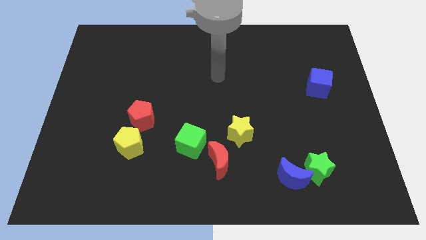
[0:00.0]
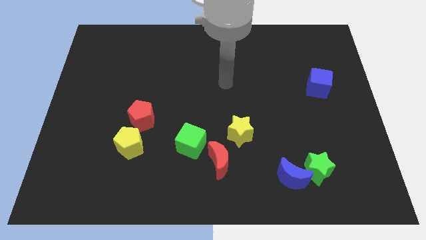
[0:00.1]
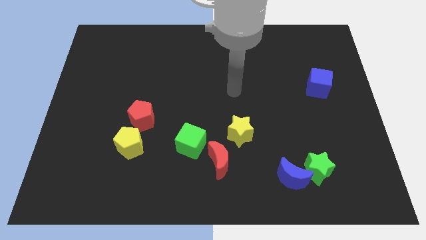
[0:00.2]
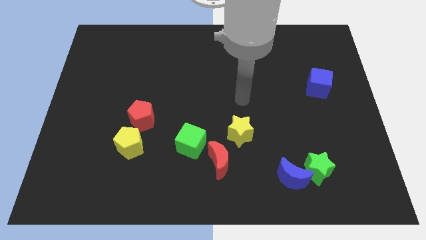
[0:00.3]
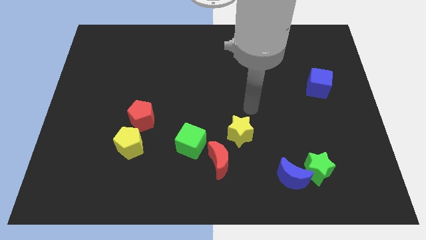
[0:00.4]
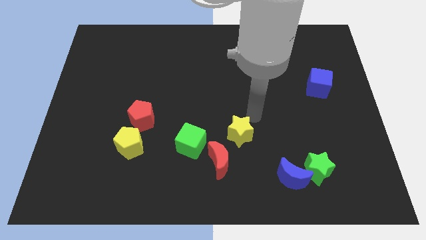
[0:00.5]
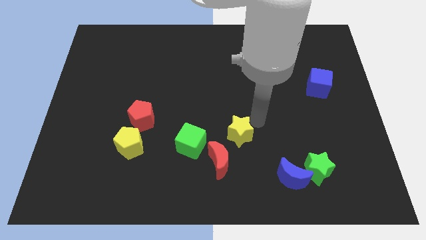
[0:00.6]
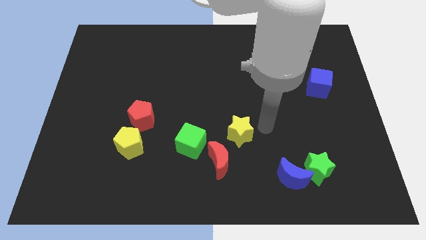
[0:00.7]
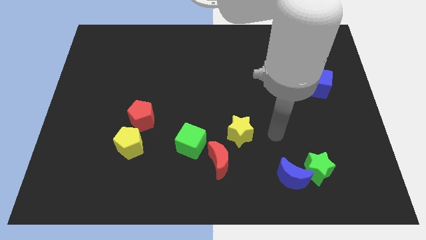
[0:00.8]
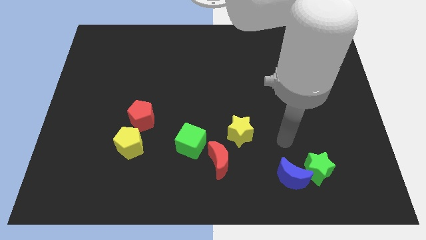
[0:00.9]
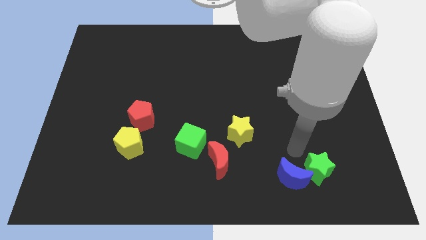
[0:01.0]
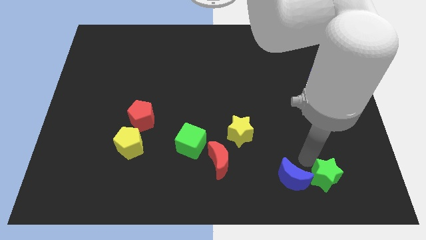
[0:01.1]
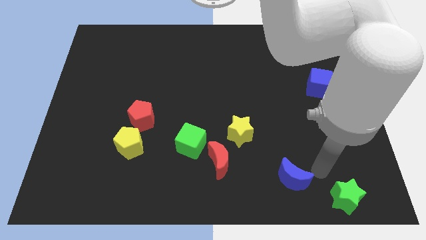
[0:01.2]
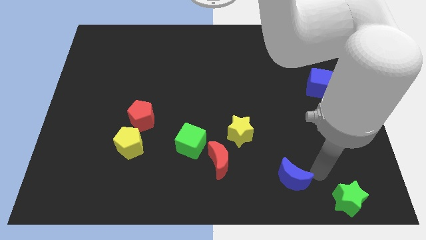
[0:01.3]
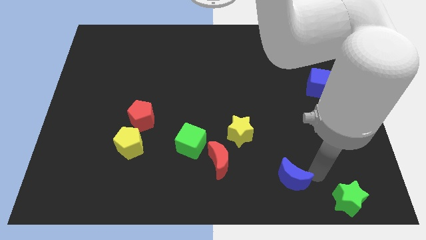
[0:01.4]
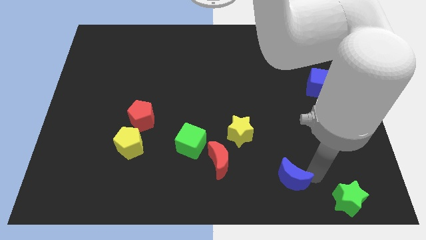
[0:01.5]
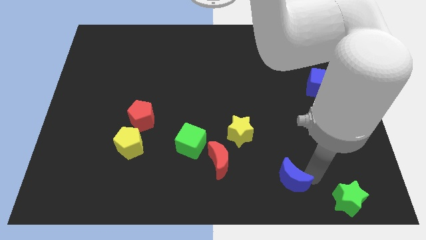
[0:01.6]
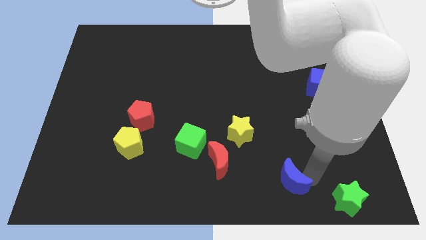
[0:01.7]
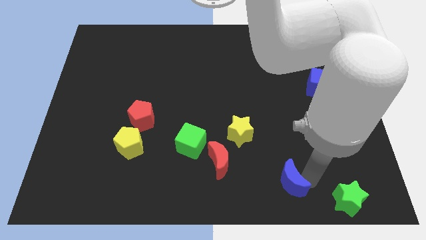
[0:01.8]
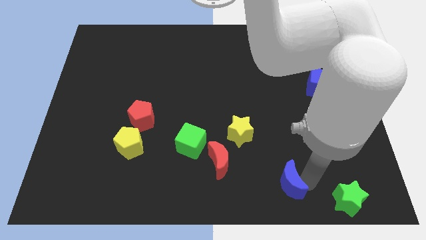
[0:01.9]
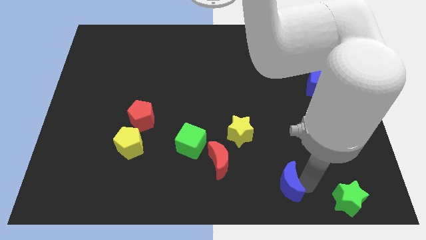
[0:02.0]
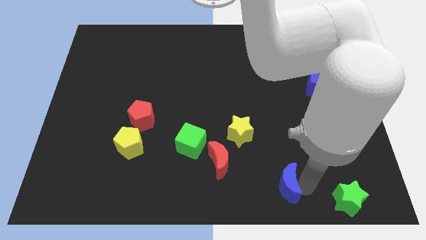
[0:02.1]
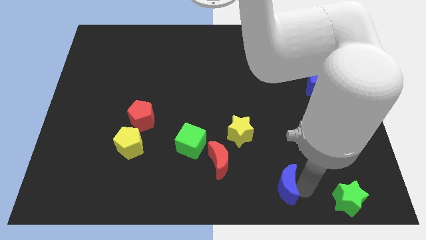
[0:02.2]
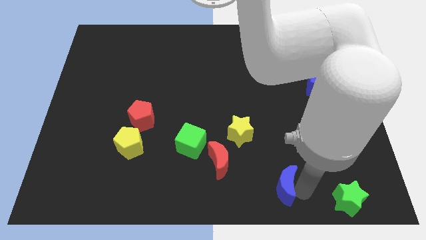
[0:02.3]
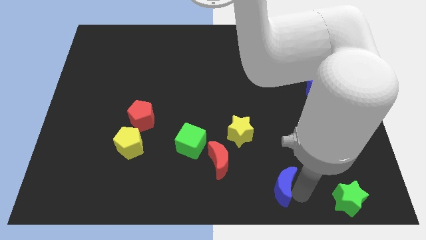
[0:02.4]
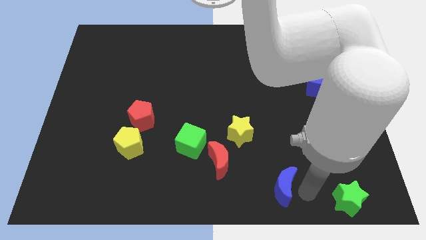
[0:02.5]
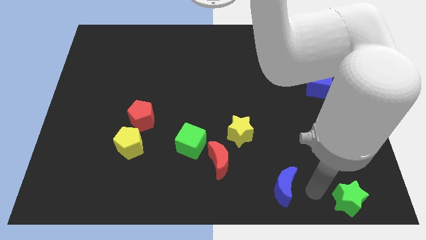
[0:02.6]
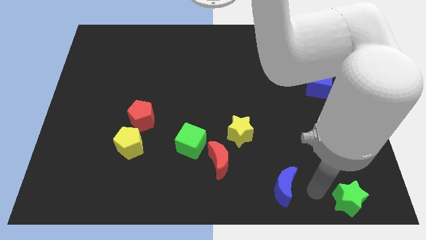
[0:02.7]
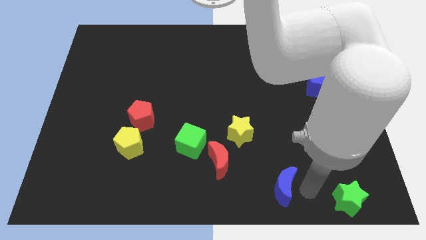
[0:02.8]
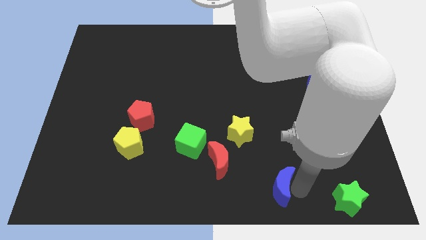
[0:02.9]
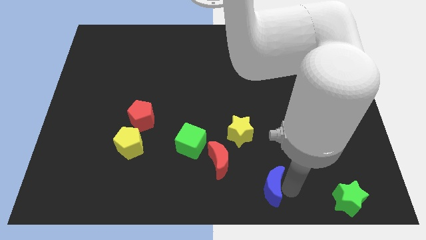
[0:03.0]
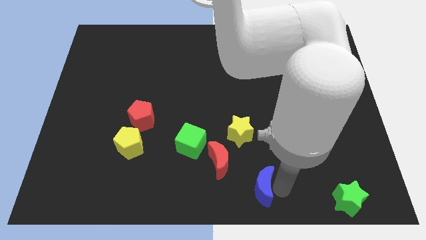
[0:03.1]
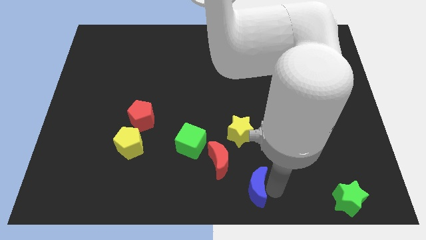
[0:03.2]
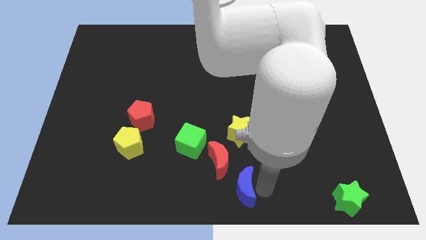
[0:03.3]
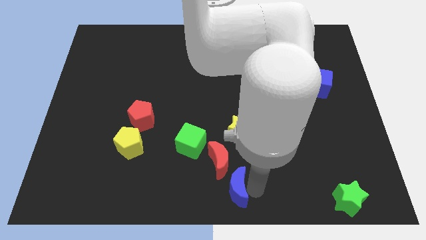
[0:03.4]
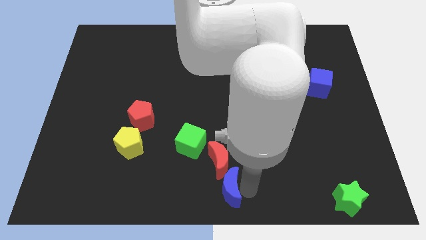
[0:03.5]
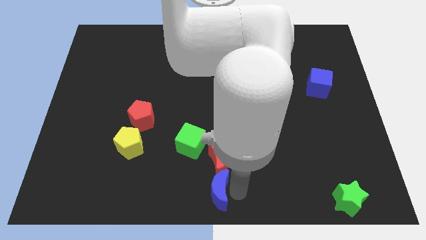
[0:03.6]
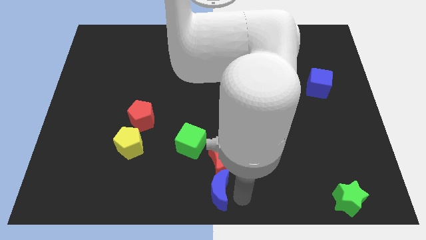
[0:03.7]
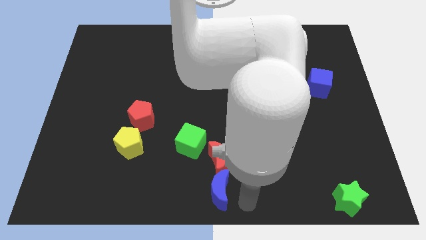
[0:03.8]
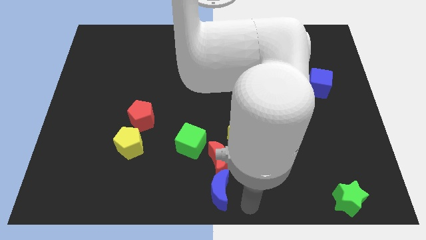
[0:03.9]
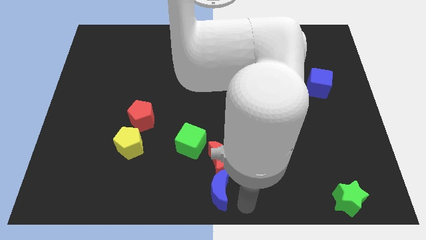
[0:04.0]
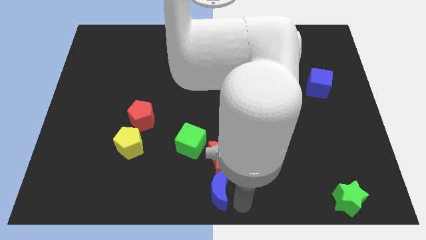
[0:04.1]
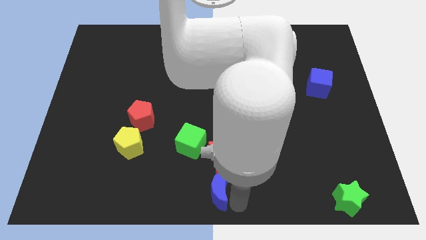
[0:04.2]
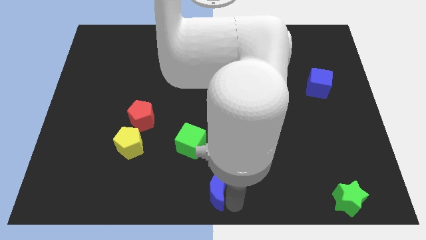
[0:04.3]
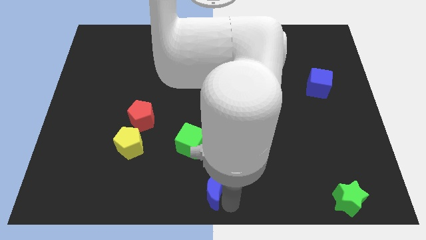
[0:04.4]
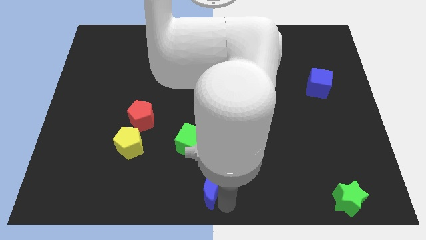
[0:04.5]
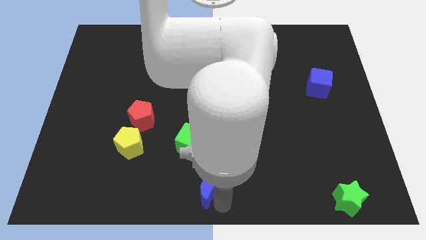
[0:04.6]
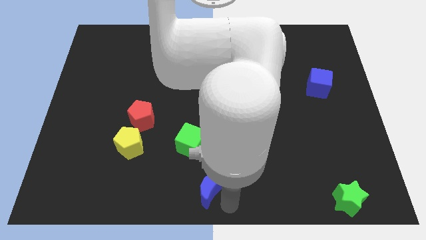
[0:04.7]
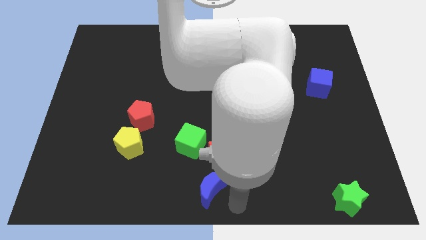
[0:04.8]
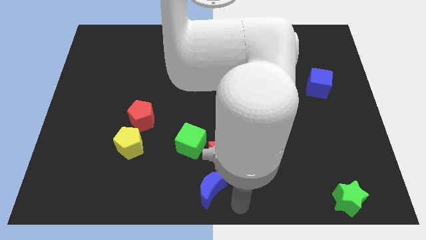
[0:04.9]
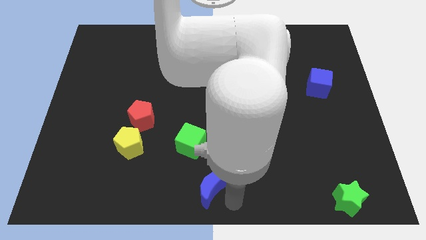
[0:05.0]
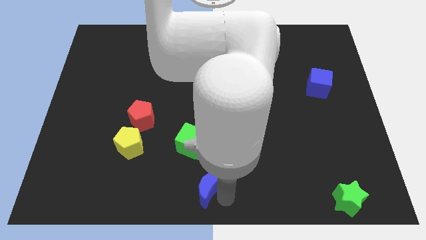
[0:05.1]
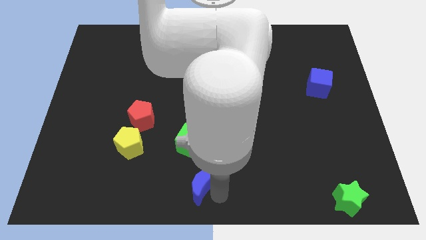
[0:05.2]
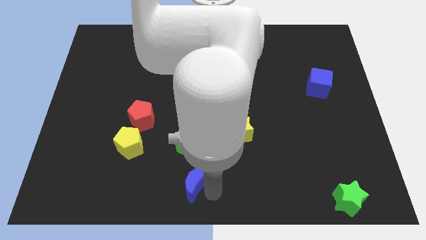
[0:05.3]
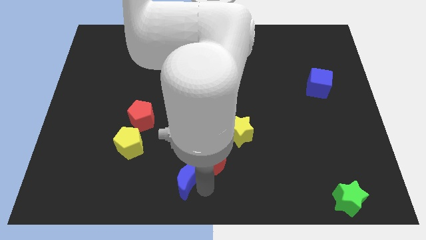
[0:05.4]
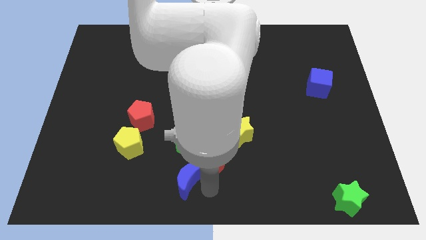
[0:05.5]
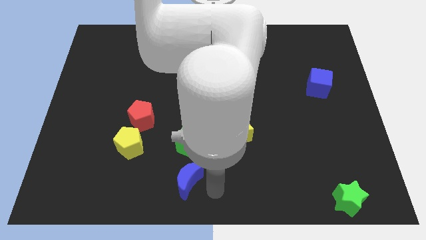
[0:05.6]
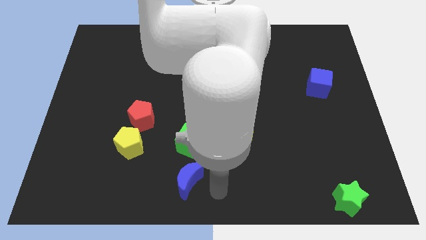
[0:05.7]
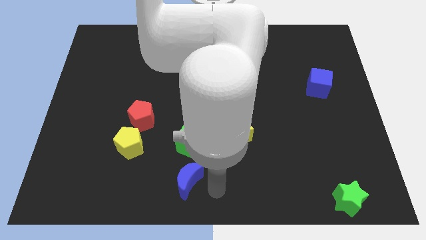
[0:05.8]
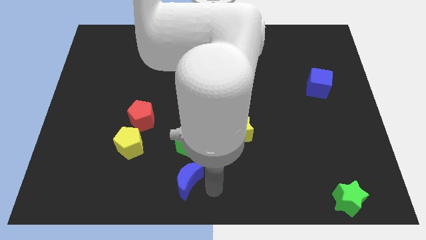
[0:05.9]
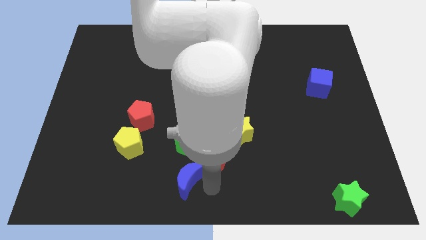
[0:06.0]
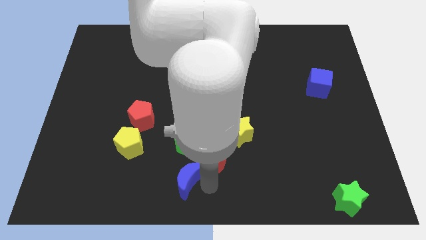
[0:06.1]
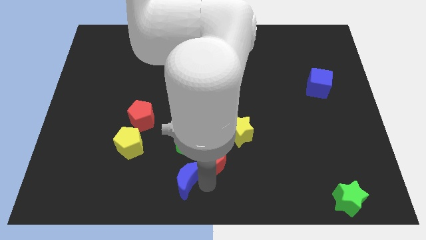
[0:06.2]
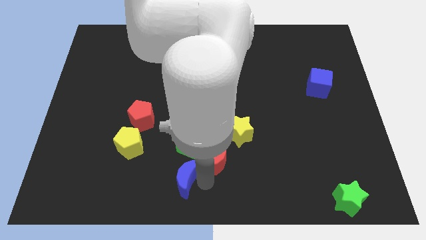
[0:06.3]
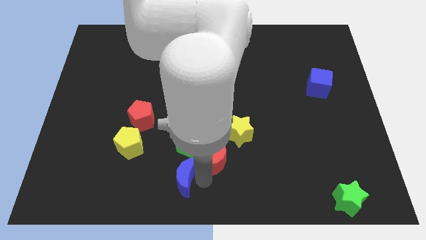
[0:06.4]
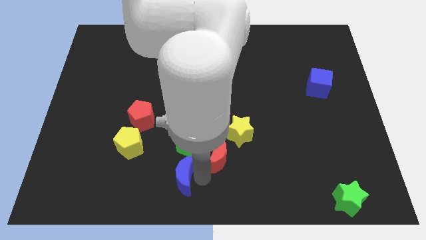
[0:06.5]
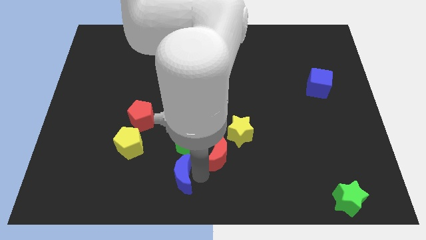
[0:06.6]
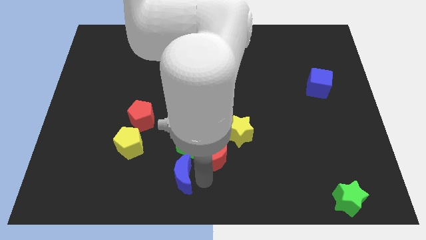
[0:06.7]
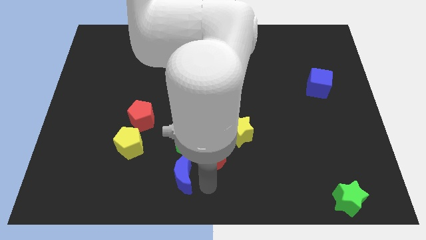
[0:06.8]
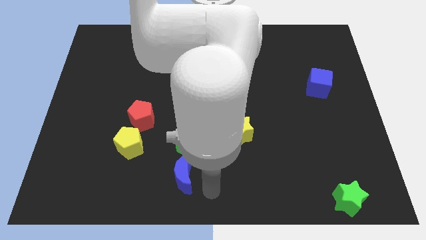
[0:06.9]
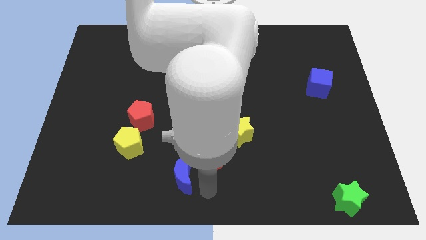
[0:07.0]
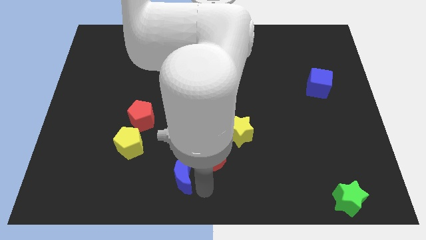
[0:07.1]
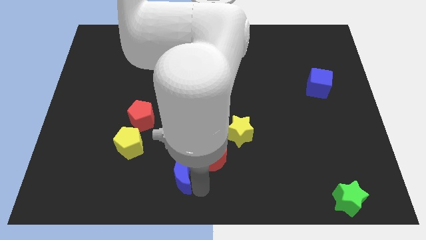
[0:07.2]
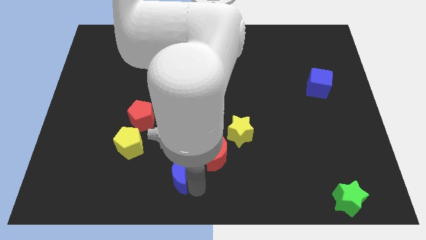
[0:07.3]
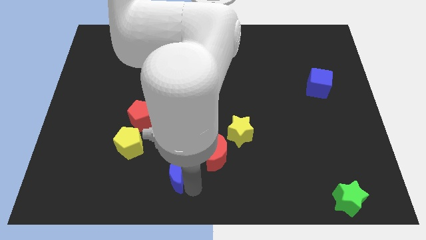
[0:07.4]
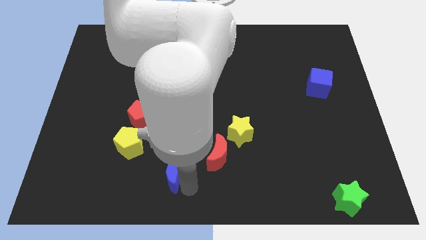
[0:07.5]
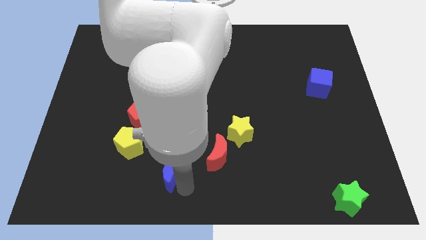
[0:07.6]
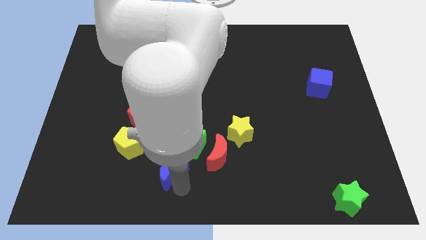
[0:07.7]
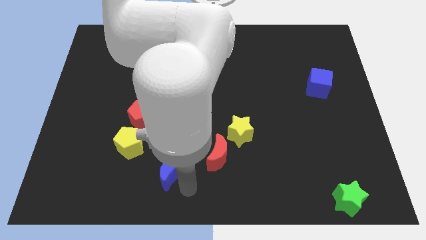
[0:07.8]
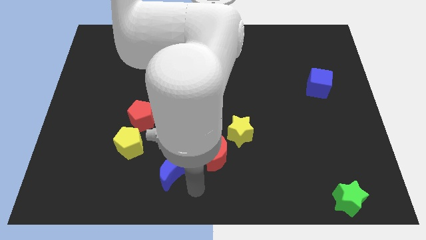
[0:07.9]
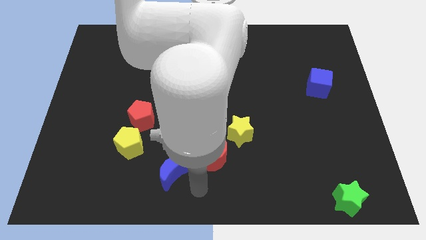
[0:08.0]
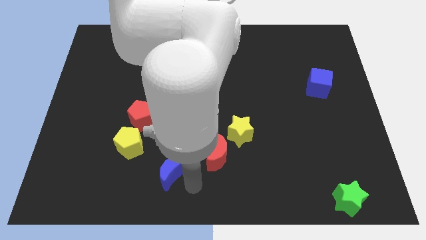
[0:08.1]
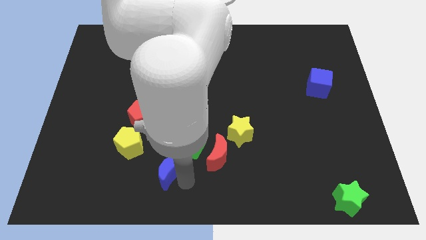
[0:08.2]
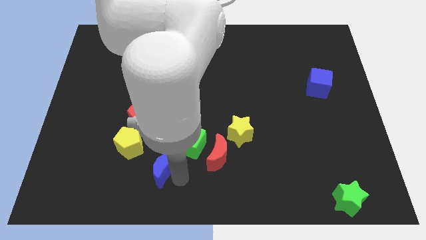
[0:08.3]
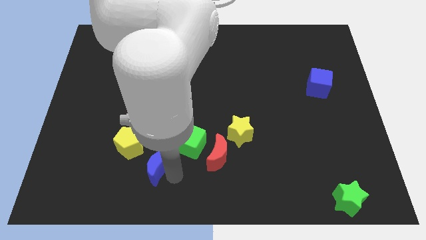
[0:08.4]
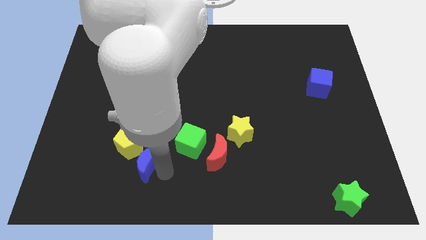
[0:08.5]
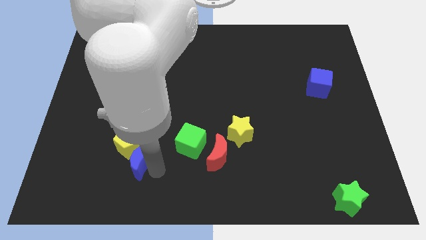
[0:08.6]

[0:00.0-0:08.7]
push the blue moon to the yellow pentagon
